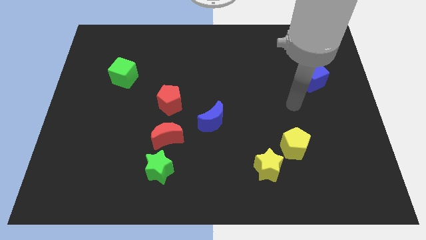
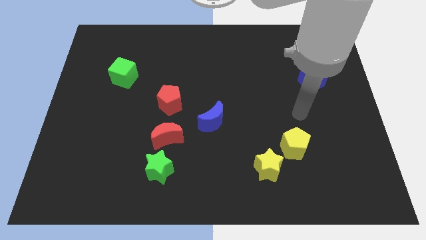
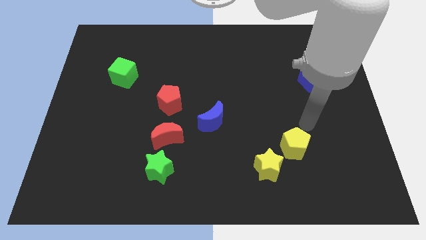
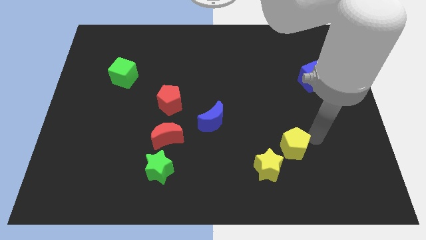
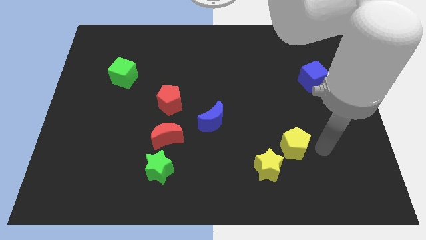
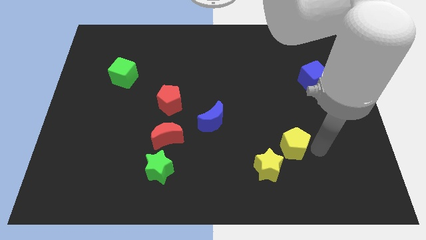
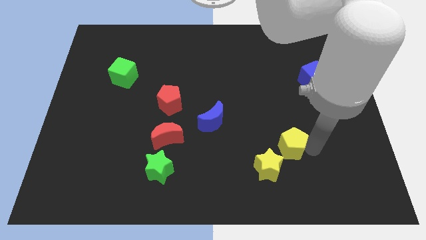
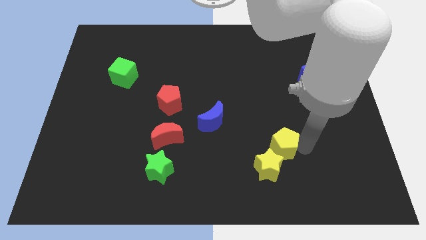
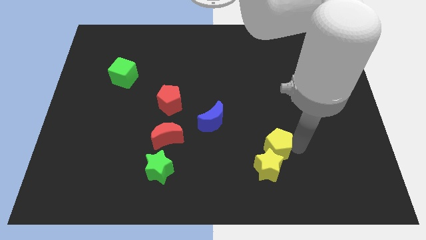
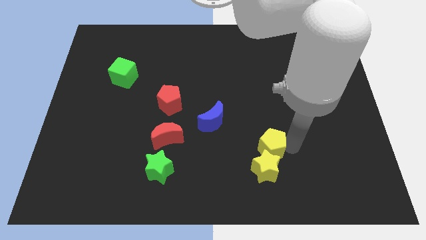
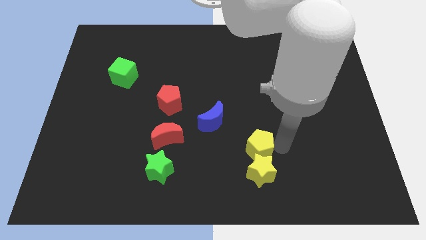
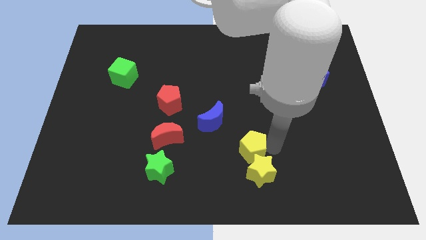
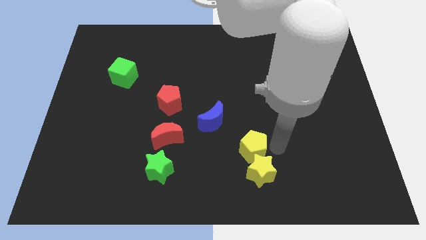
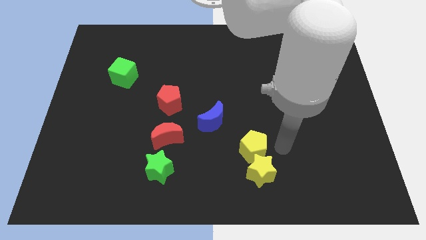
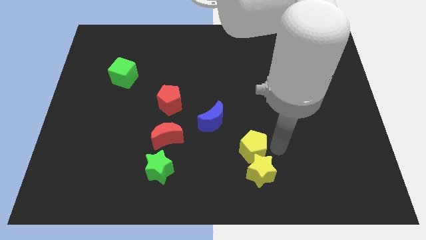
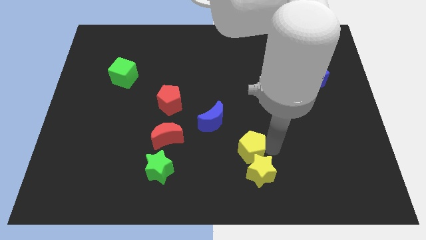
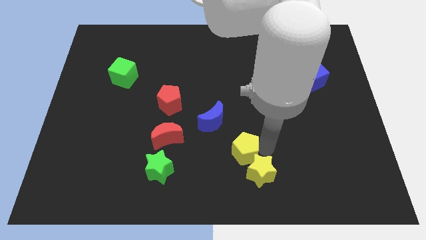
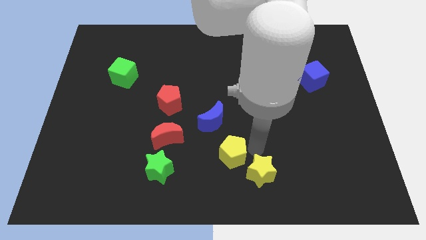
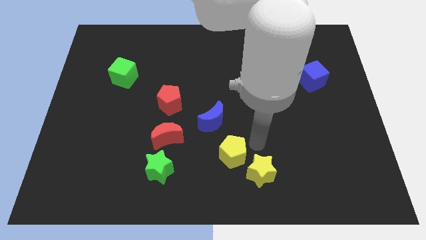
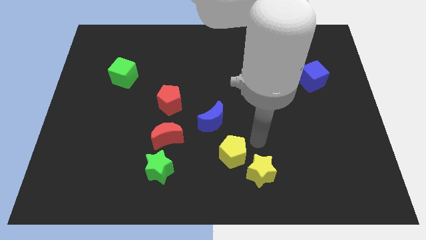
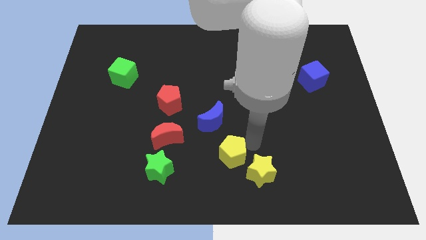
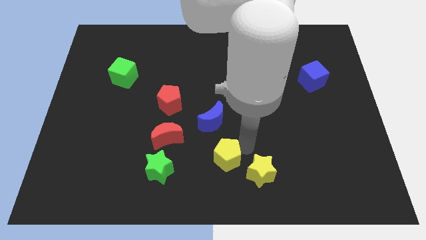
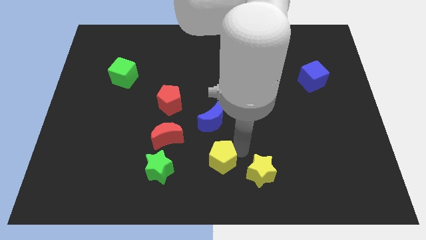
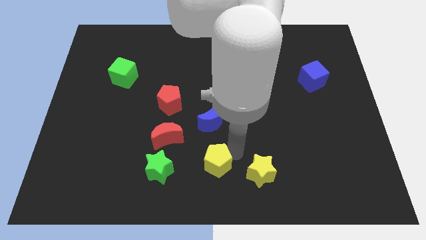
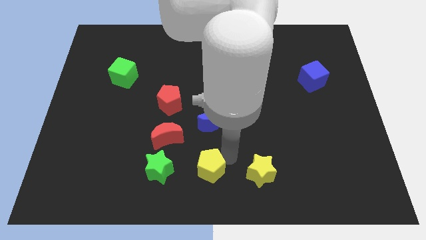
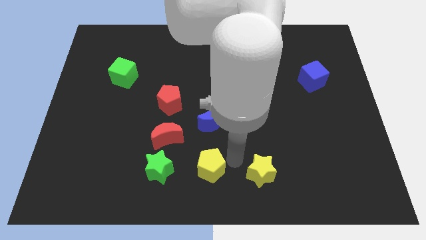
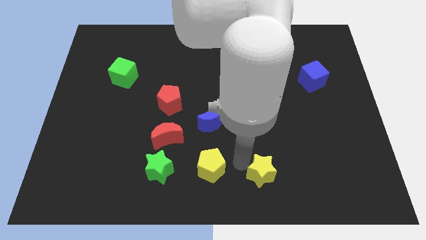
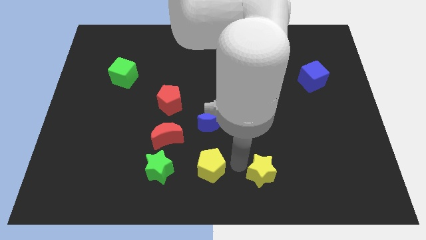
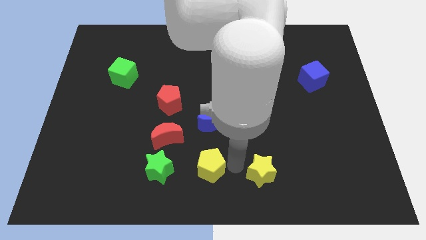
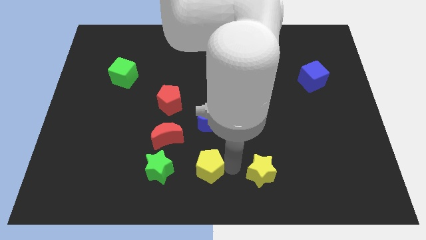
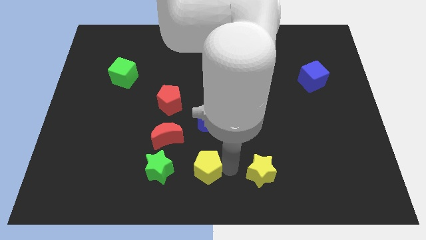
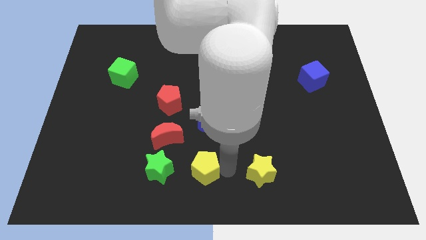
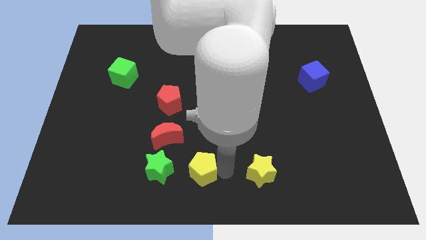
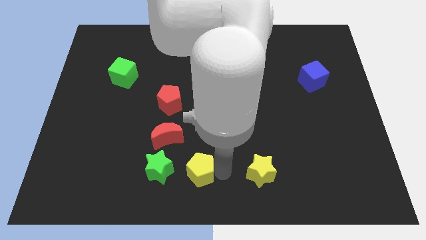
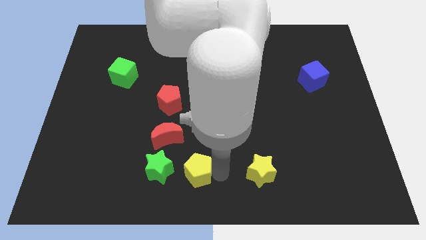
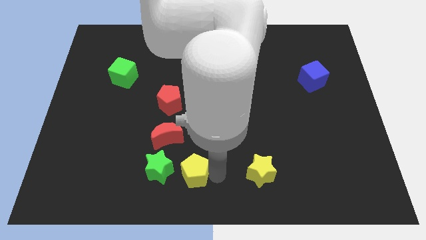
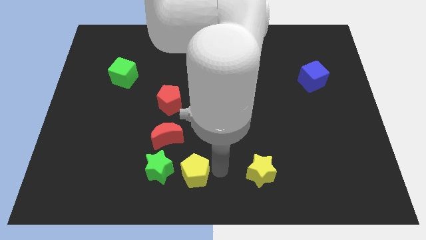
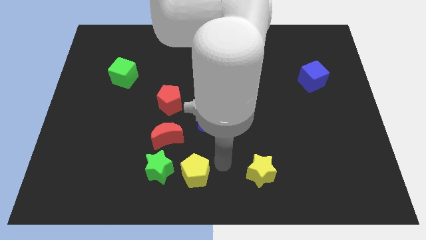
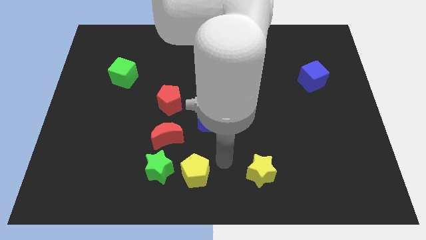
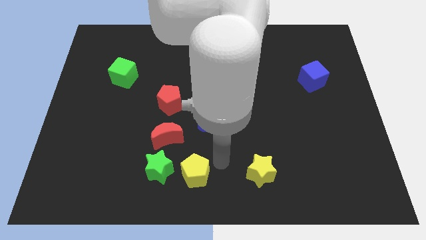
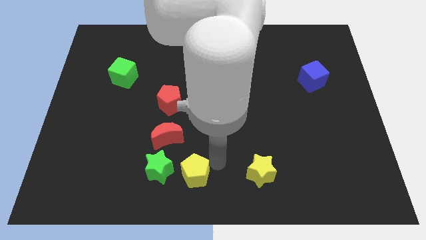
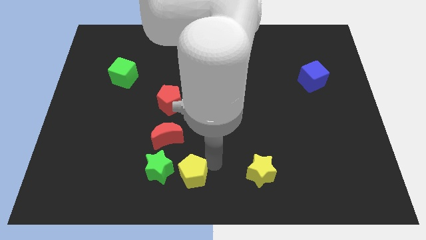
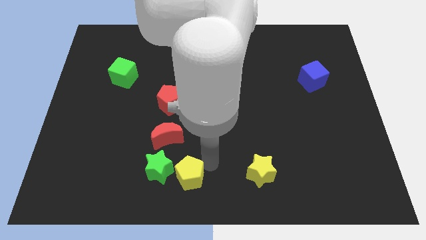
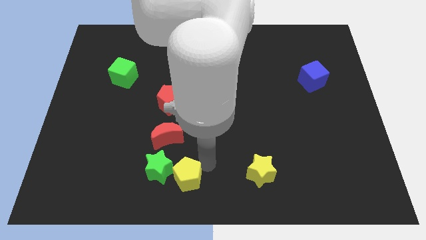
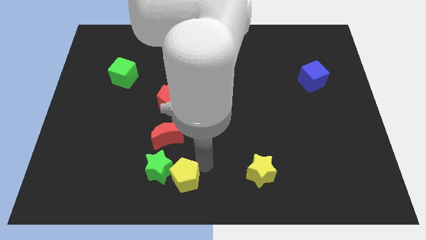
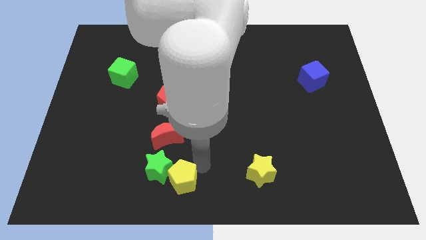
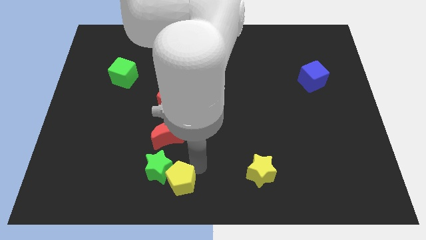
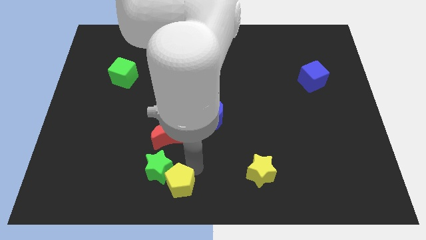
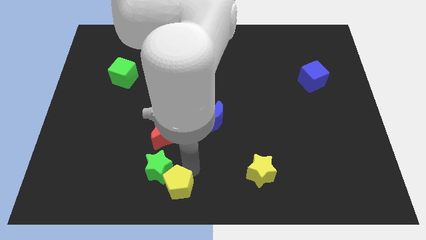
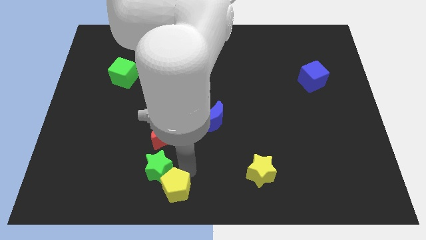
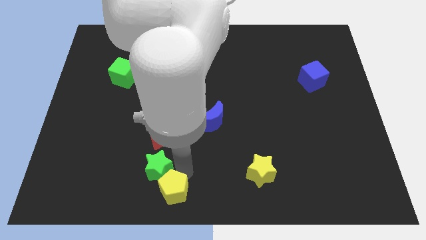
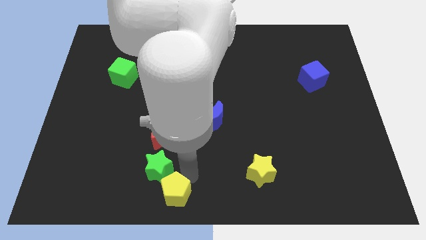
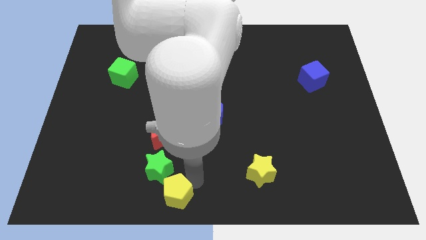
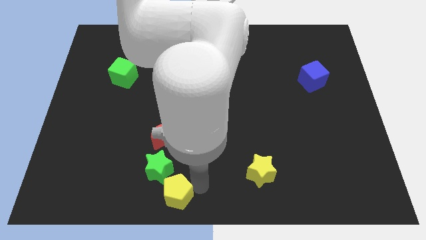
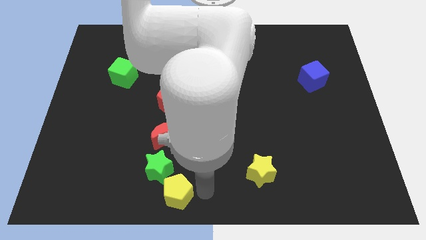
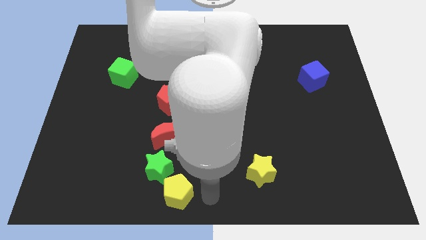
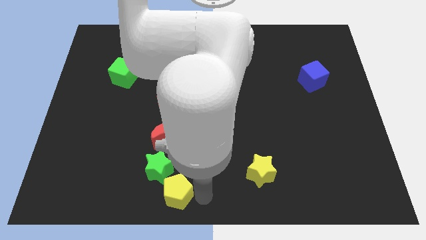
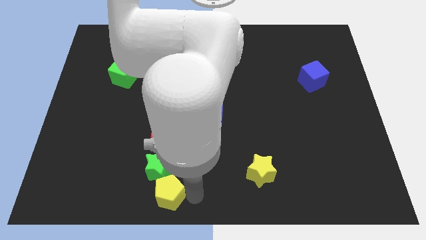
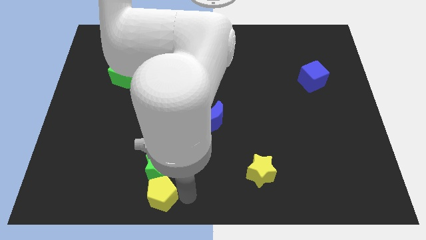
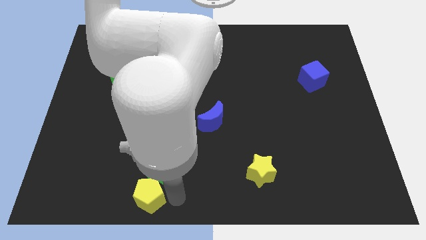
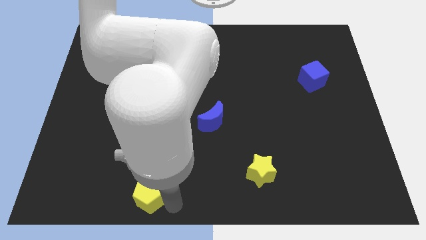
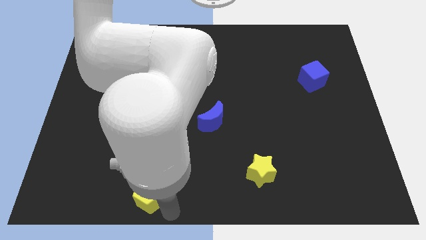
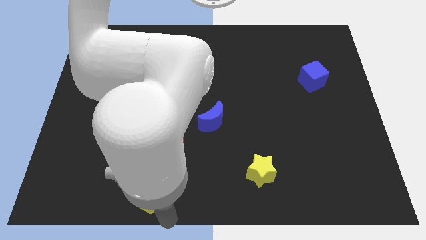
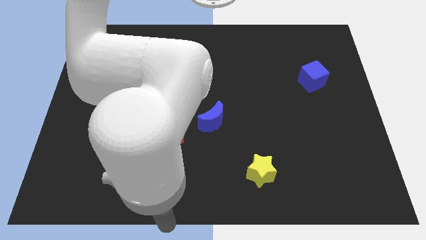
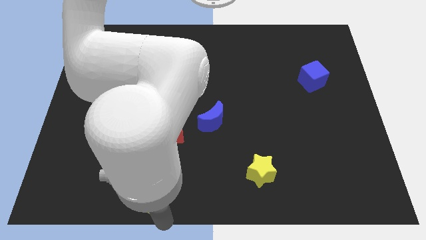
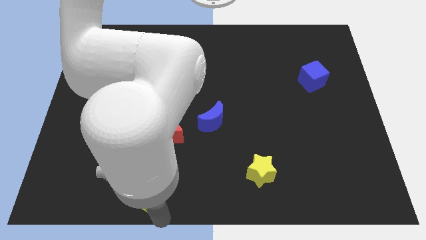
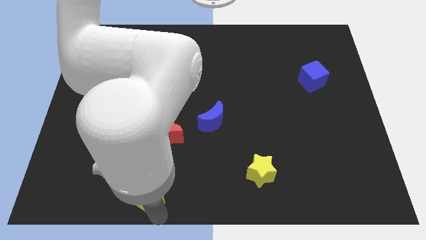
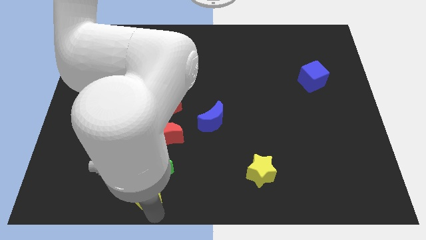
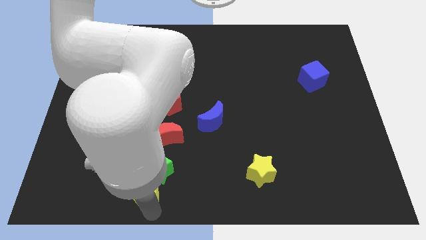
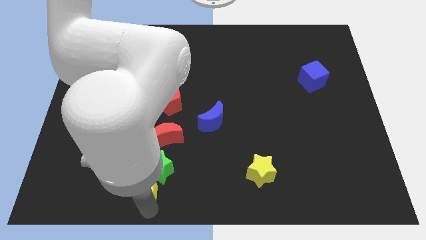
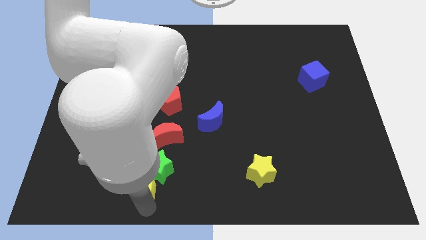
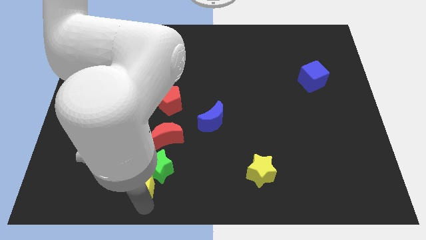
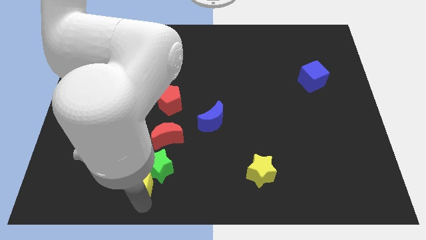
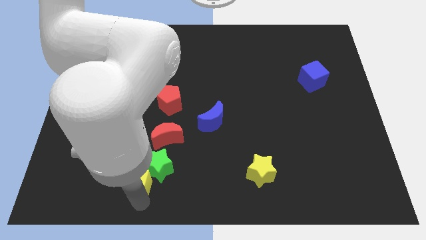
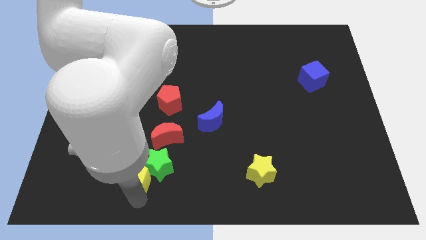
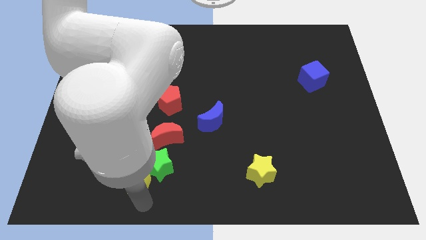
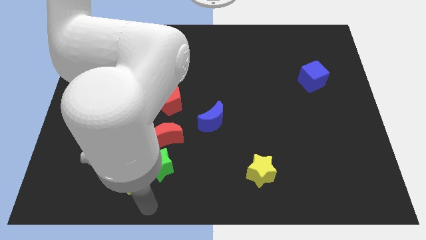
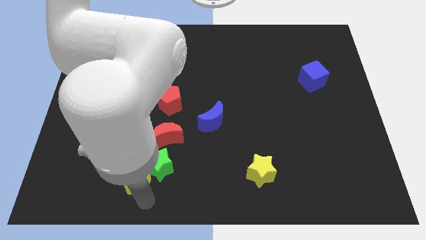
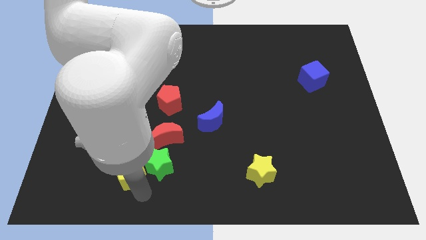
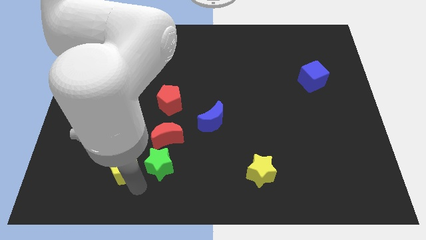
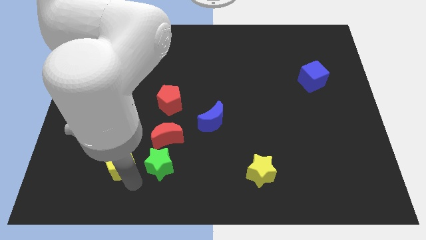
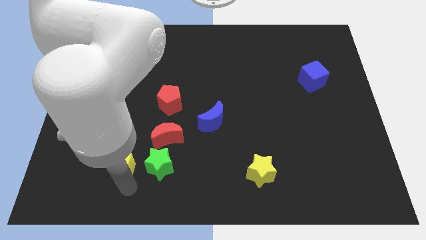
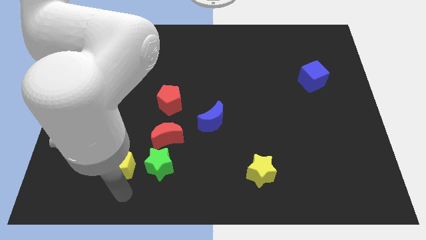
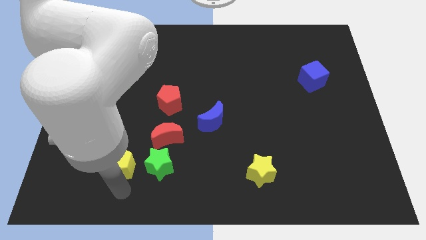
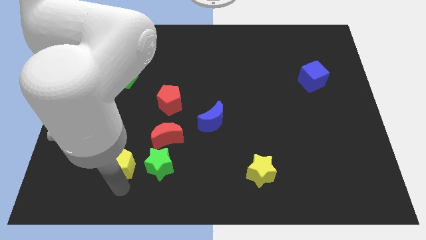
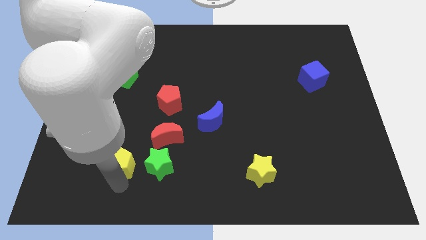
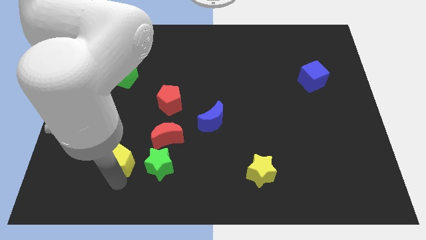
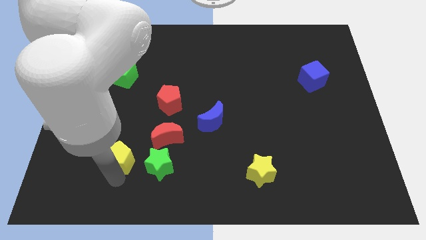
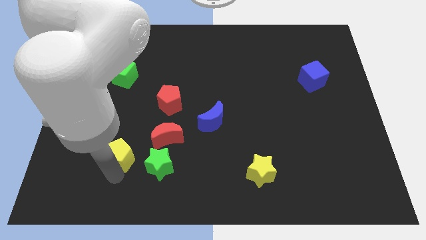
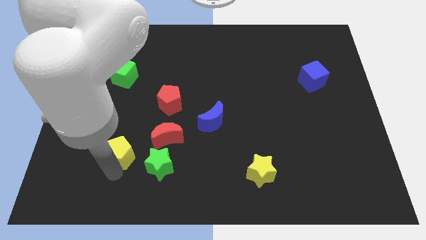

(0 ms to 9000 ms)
slide the yellow pentagon to the left of the red moon
